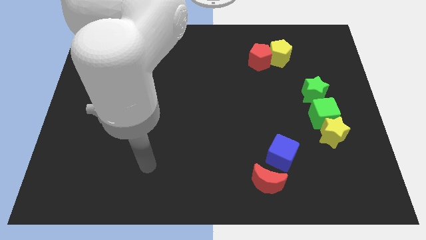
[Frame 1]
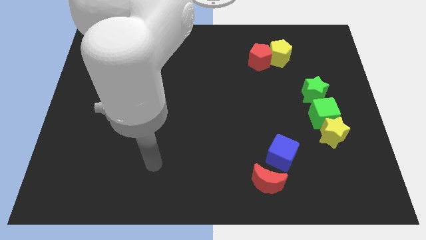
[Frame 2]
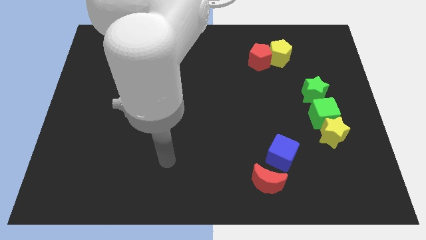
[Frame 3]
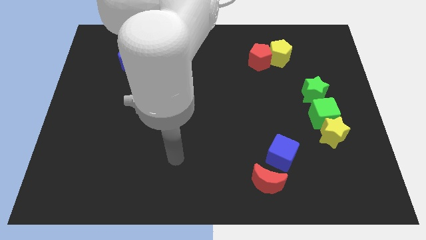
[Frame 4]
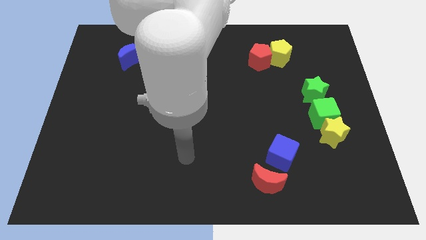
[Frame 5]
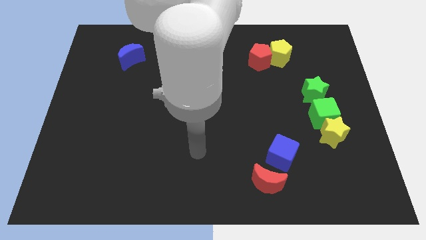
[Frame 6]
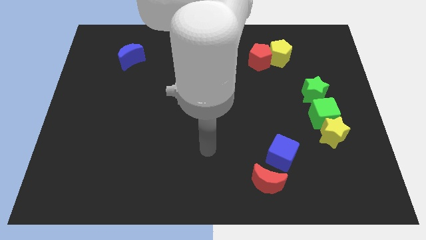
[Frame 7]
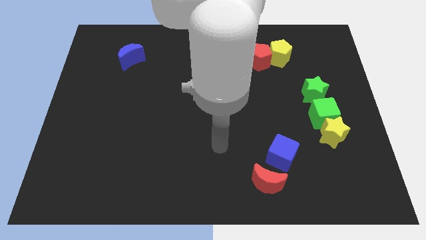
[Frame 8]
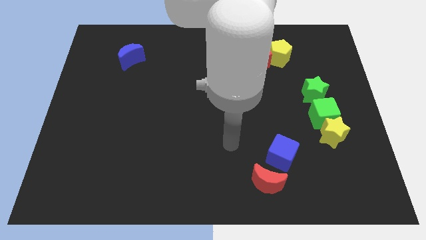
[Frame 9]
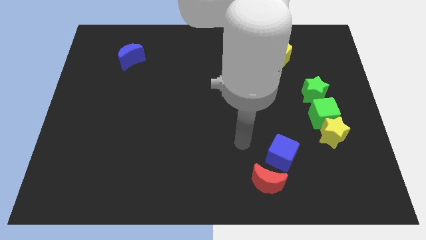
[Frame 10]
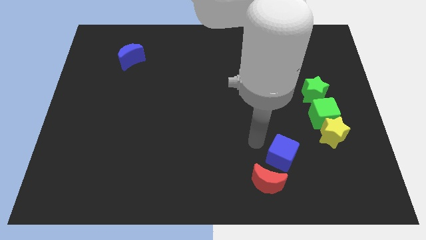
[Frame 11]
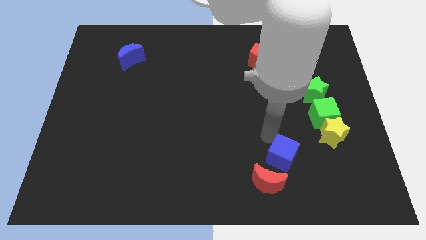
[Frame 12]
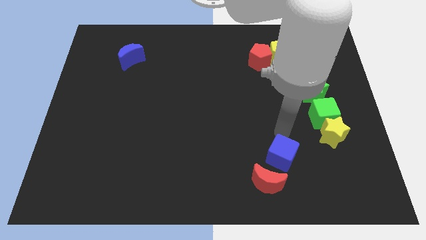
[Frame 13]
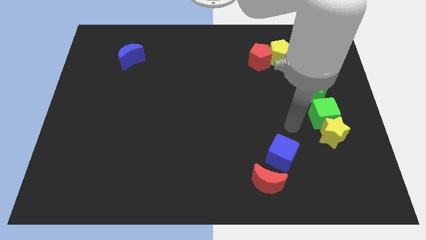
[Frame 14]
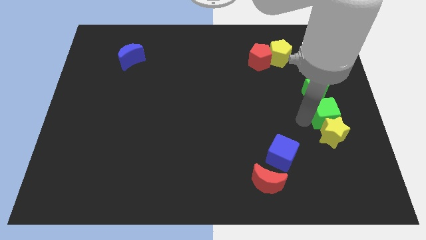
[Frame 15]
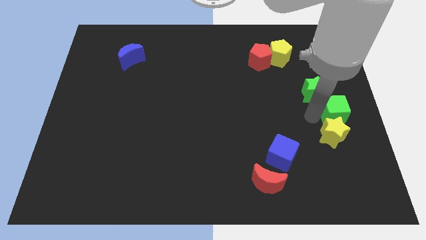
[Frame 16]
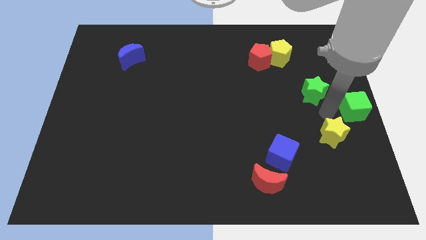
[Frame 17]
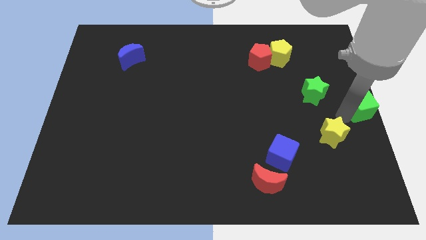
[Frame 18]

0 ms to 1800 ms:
separate the yellow star from the green cube

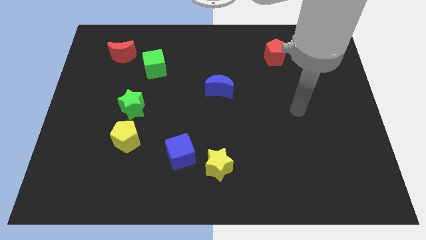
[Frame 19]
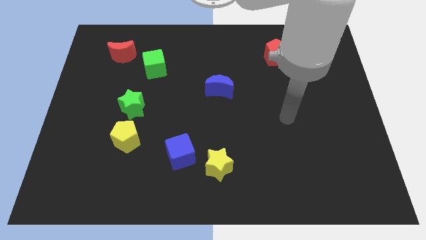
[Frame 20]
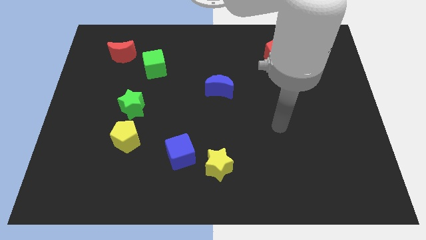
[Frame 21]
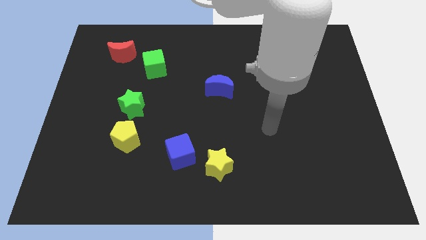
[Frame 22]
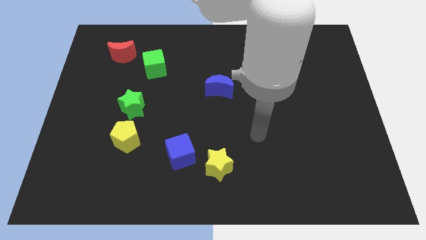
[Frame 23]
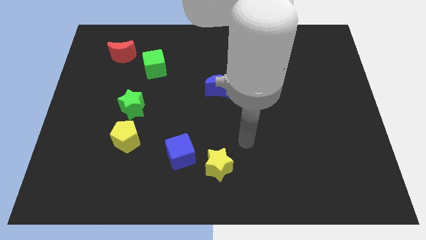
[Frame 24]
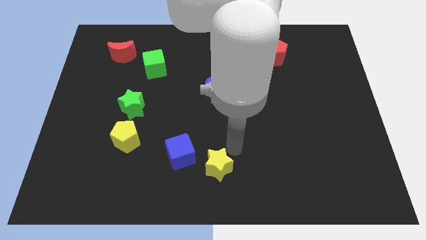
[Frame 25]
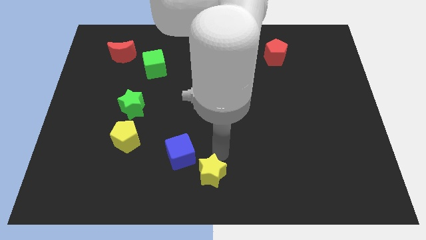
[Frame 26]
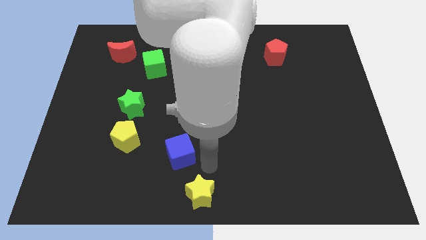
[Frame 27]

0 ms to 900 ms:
pull the blue cube apart from the yellow star

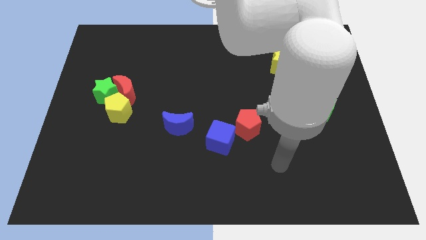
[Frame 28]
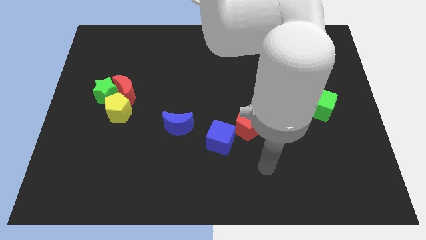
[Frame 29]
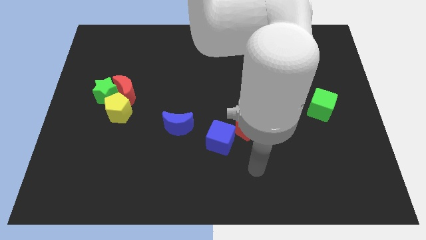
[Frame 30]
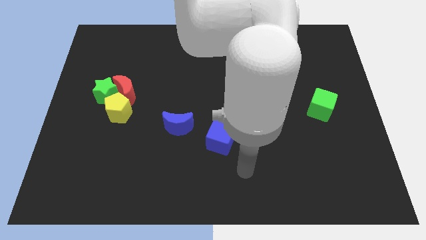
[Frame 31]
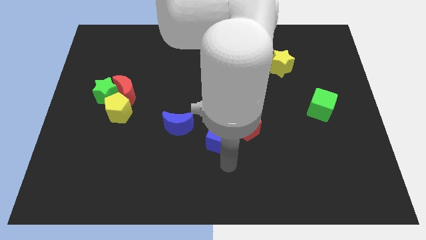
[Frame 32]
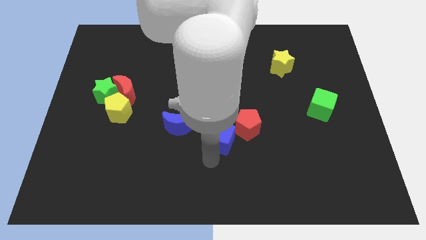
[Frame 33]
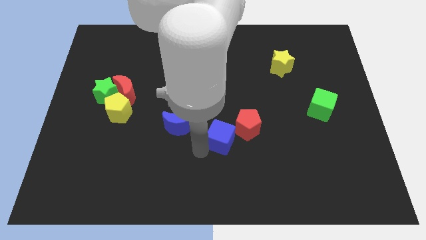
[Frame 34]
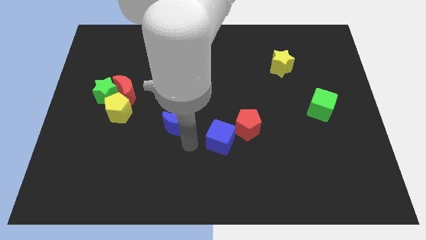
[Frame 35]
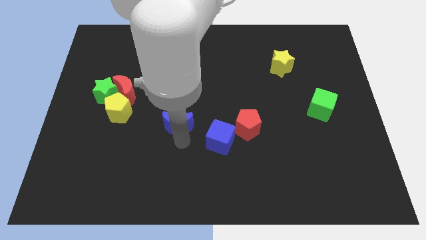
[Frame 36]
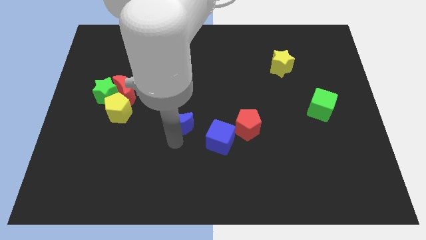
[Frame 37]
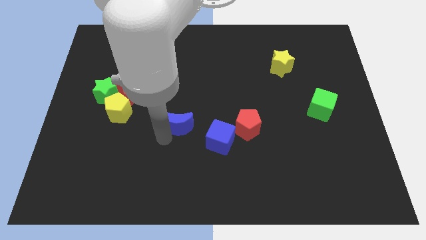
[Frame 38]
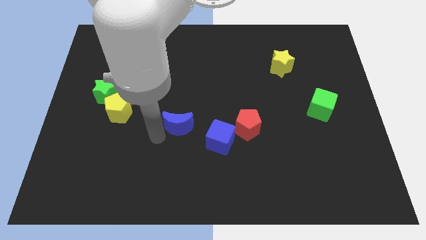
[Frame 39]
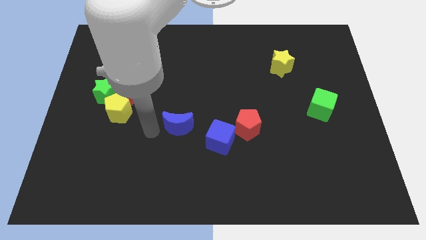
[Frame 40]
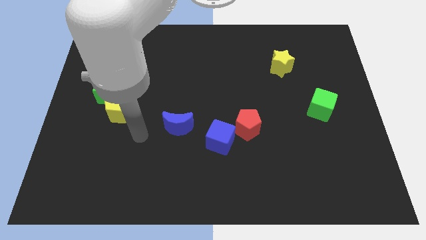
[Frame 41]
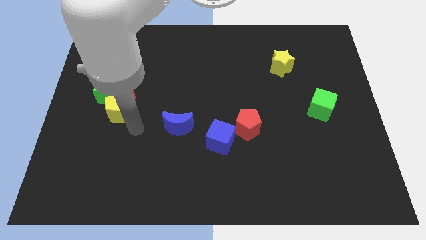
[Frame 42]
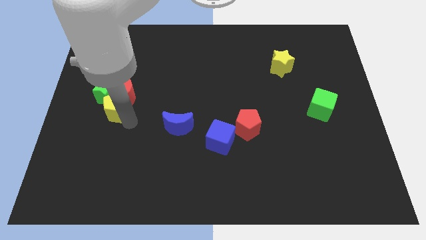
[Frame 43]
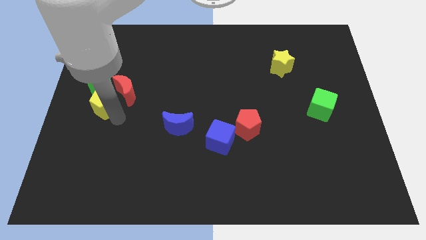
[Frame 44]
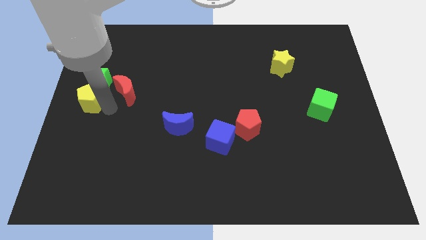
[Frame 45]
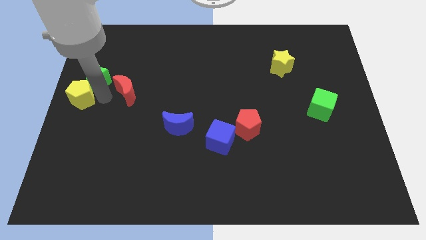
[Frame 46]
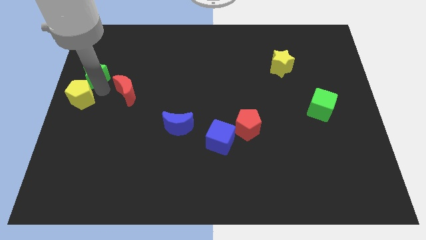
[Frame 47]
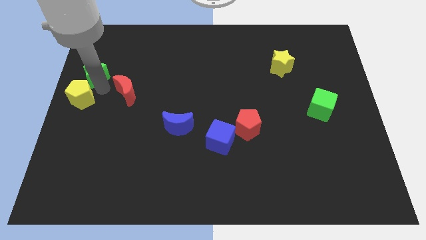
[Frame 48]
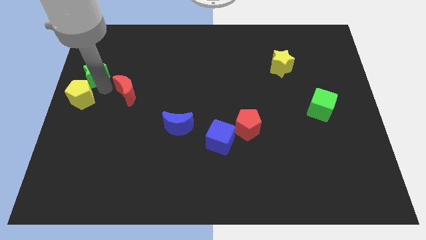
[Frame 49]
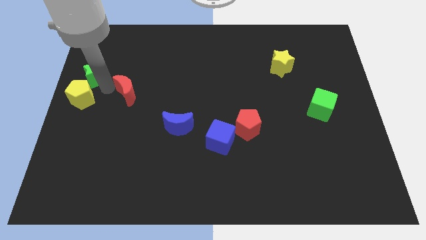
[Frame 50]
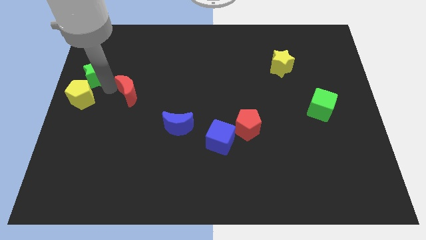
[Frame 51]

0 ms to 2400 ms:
move the red moon away from the green star and yellow pentagon

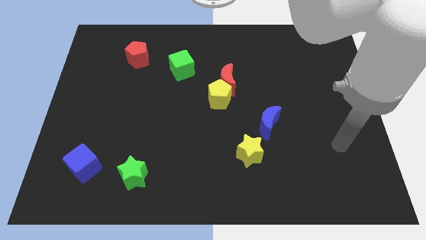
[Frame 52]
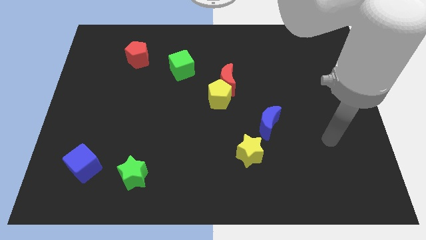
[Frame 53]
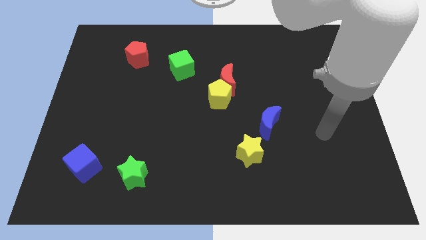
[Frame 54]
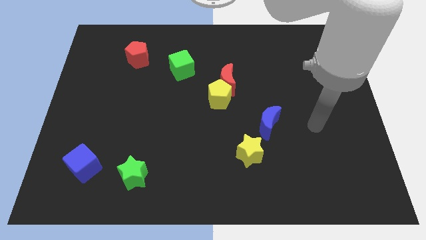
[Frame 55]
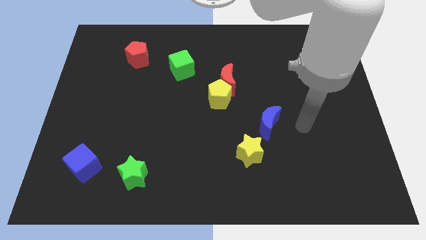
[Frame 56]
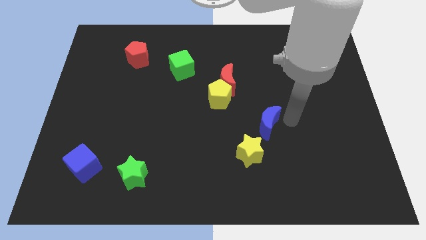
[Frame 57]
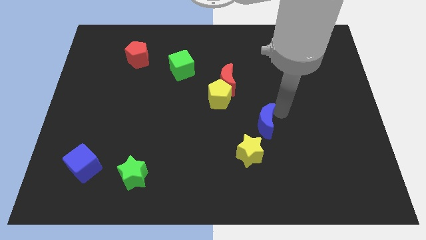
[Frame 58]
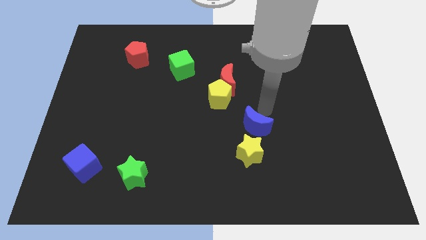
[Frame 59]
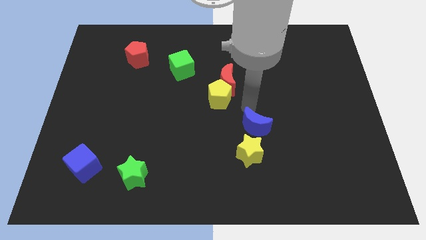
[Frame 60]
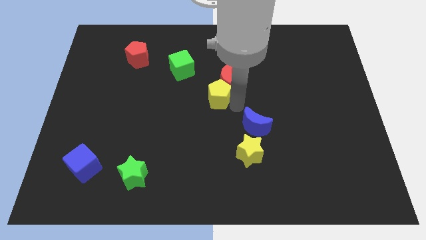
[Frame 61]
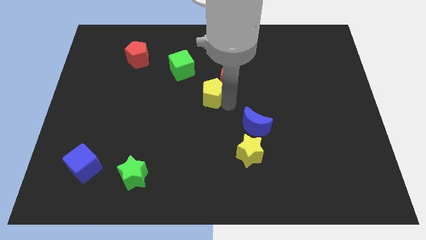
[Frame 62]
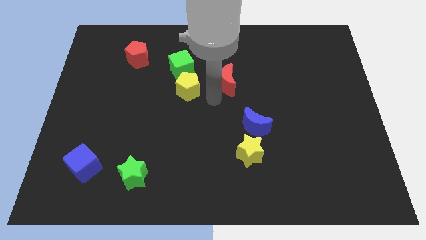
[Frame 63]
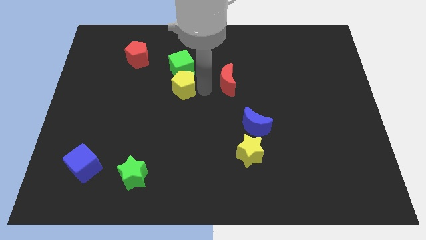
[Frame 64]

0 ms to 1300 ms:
move the red moon away from the yellow pentagon

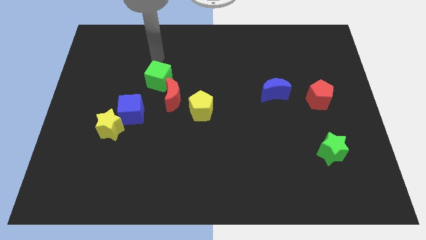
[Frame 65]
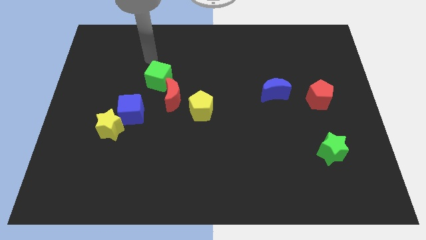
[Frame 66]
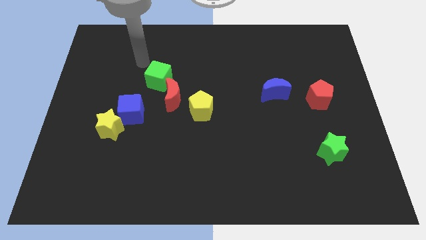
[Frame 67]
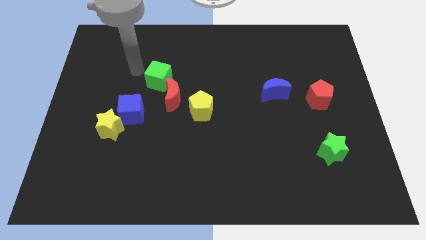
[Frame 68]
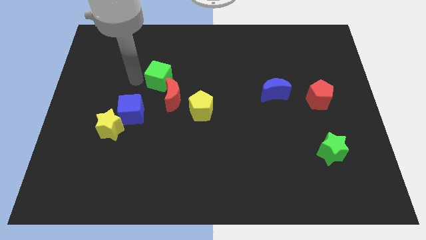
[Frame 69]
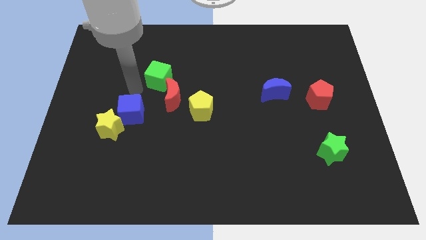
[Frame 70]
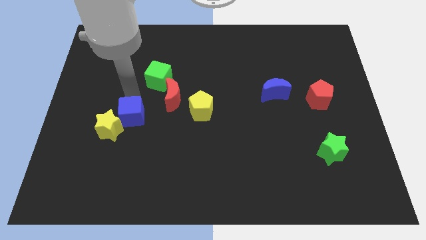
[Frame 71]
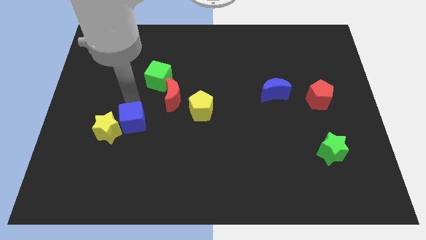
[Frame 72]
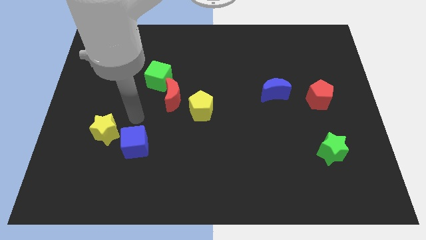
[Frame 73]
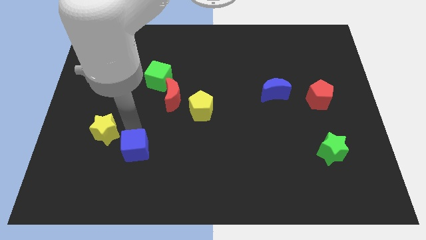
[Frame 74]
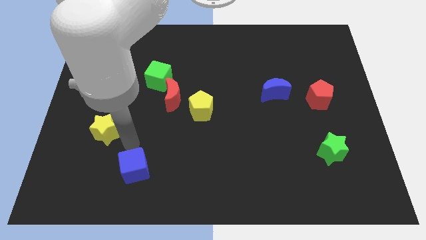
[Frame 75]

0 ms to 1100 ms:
move the yellow star away from the blue cube

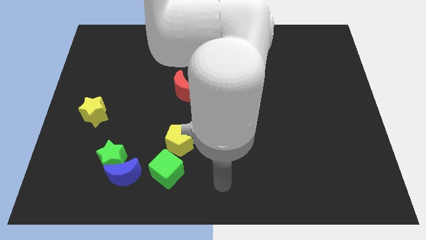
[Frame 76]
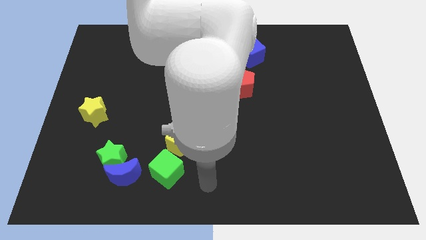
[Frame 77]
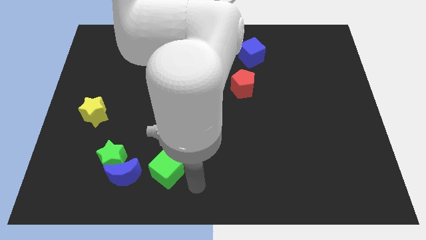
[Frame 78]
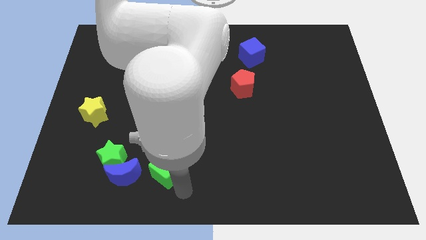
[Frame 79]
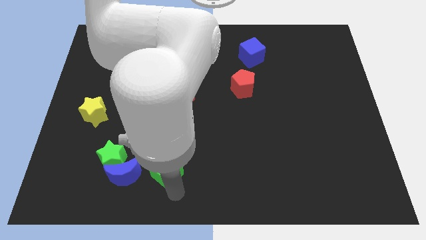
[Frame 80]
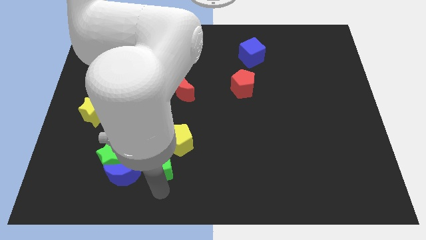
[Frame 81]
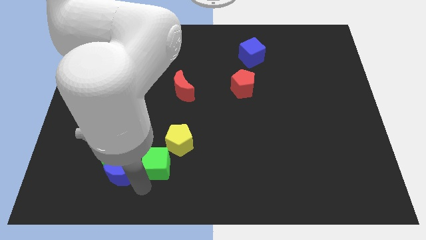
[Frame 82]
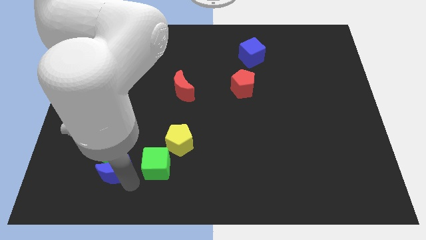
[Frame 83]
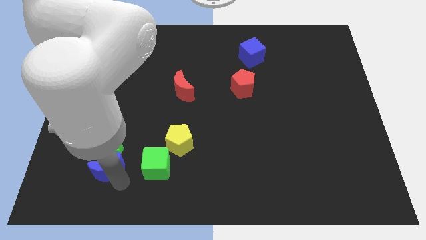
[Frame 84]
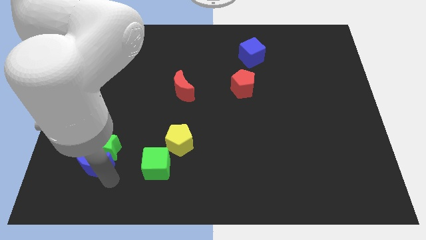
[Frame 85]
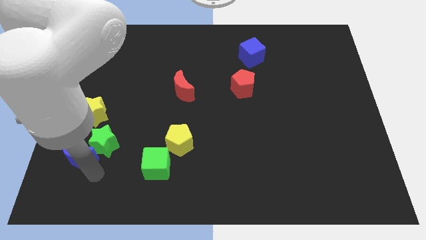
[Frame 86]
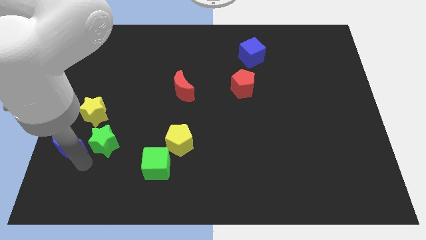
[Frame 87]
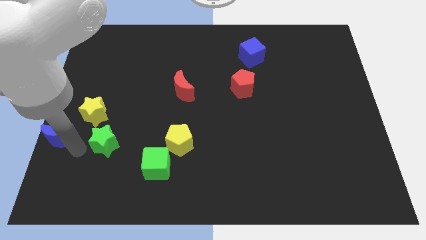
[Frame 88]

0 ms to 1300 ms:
pull the green star apart from the blue moon
